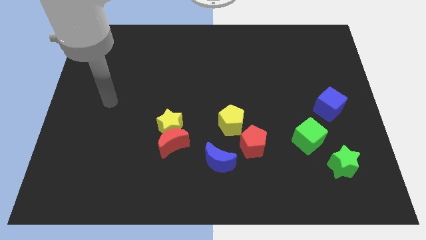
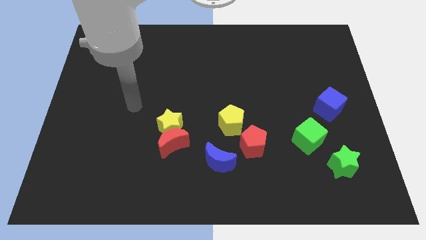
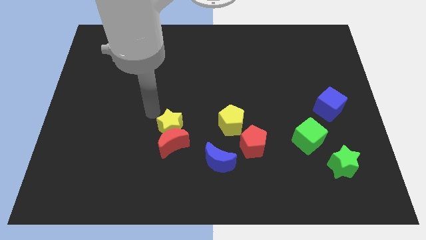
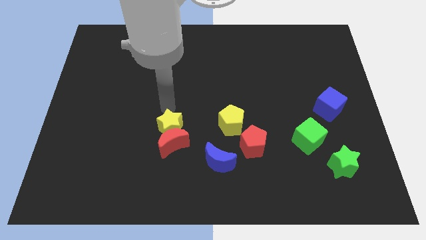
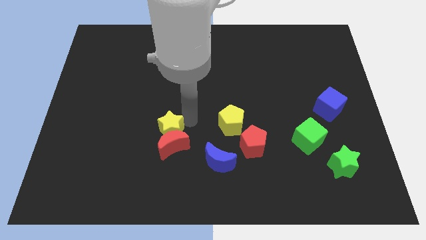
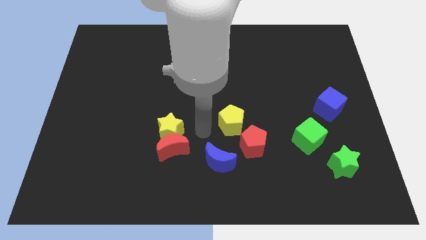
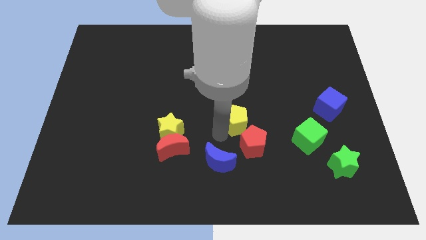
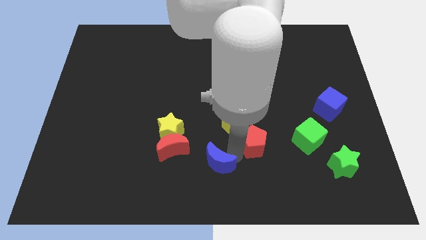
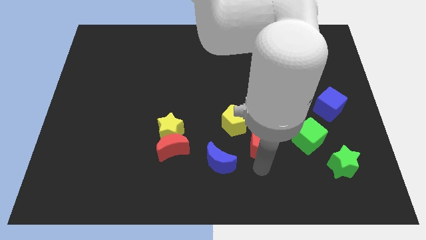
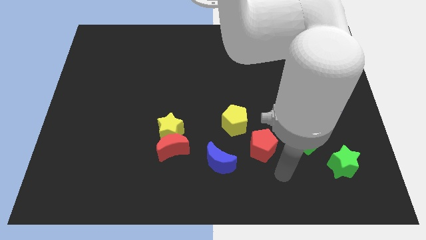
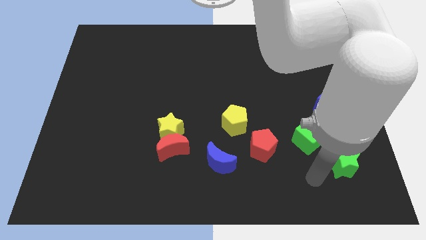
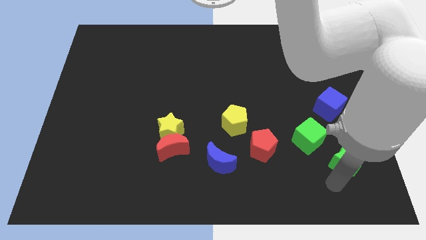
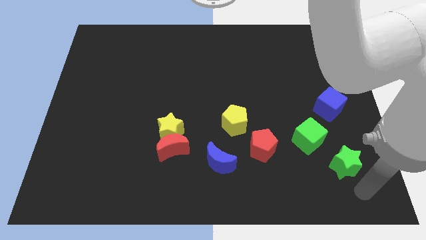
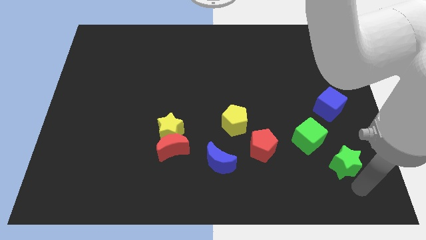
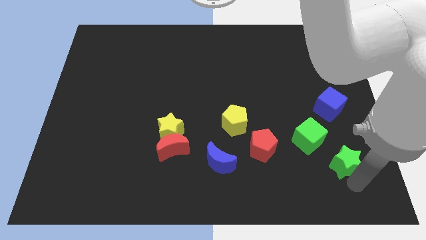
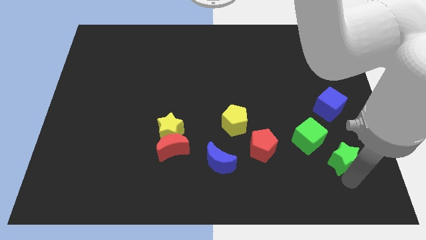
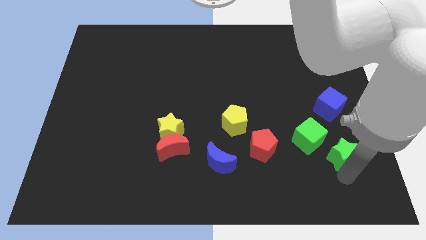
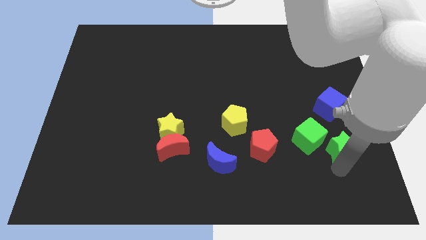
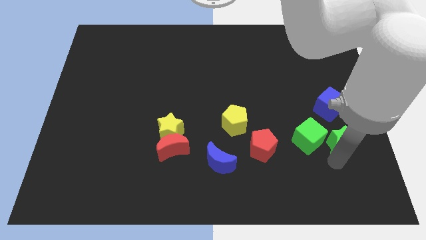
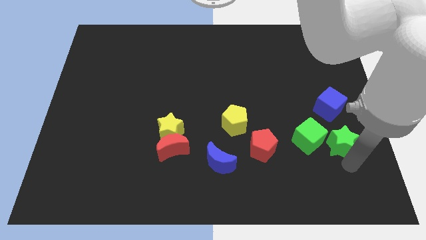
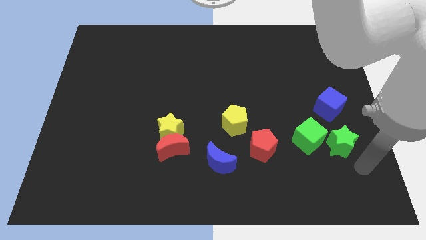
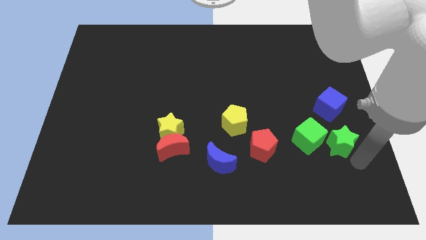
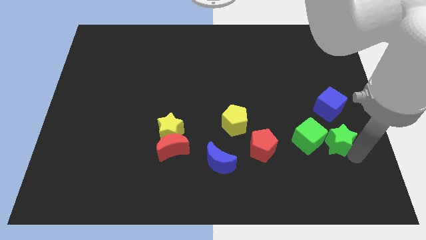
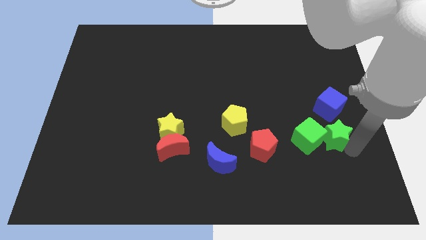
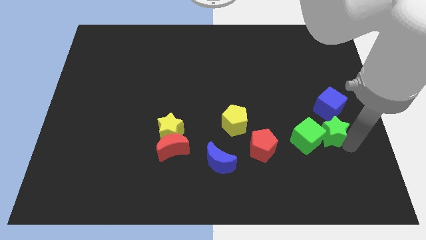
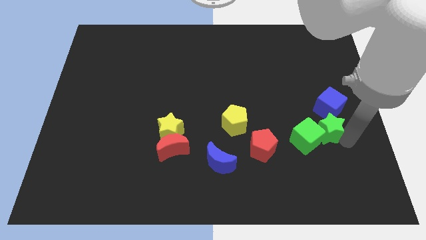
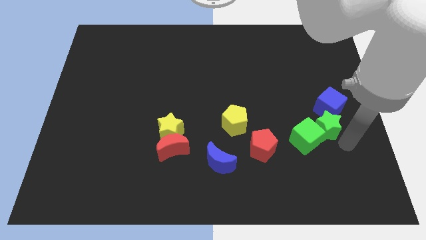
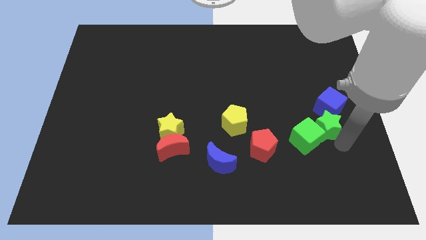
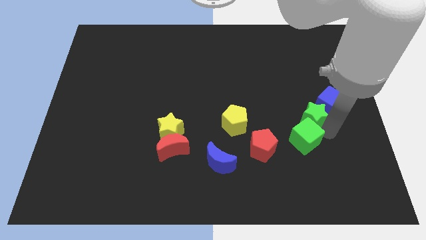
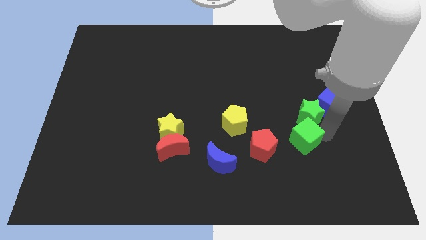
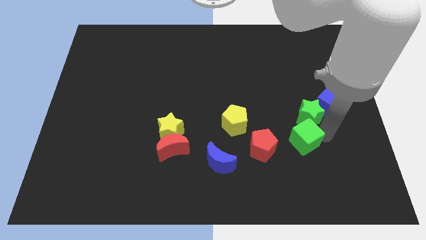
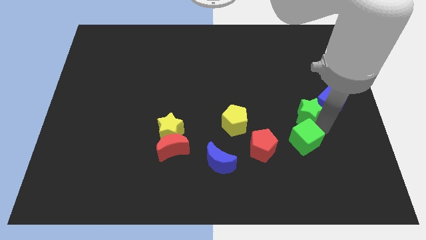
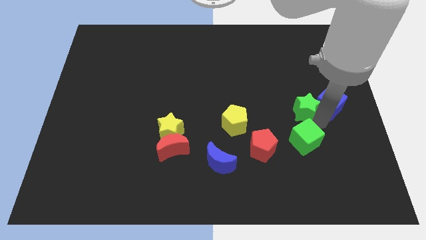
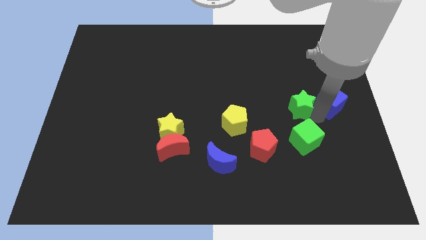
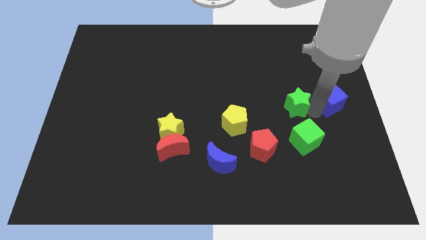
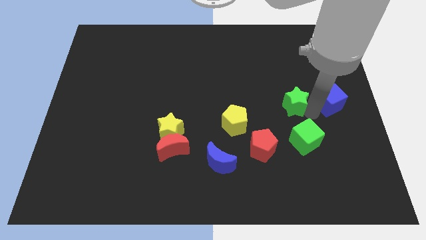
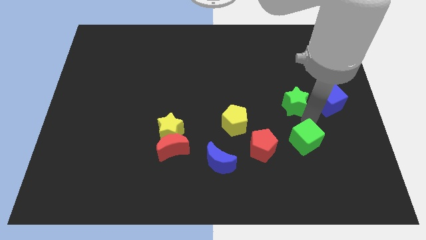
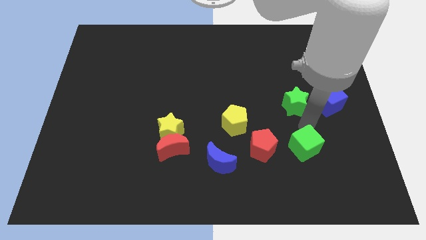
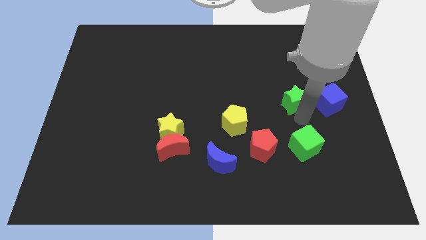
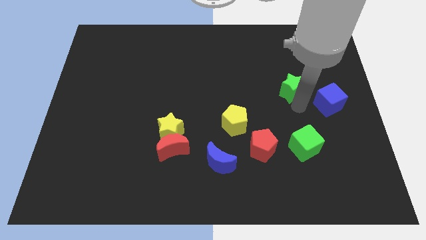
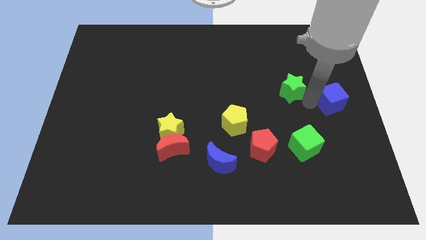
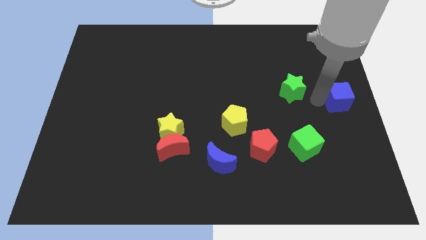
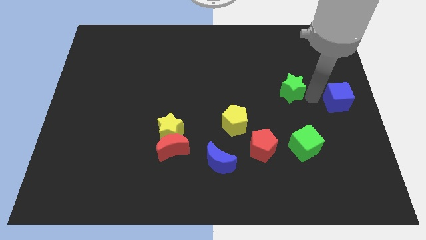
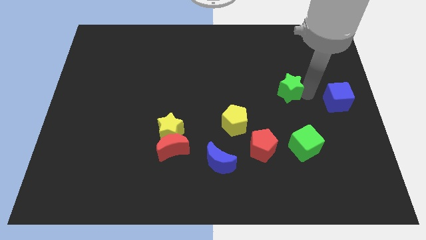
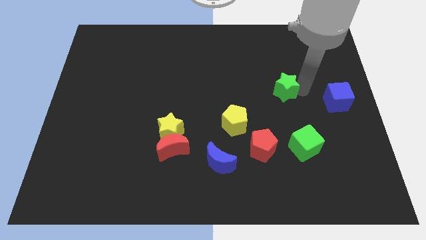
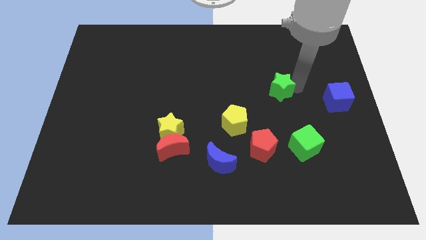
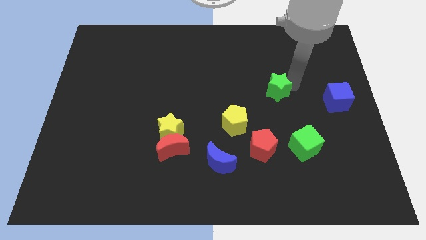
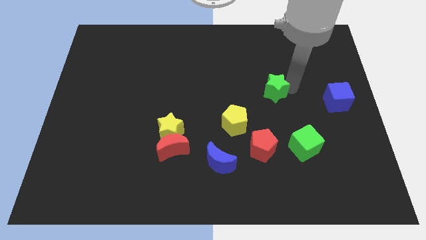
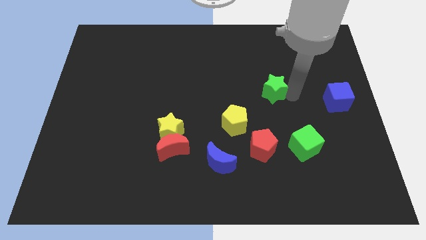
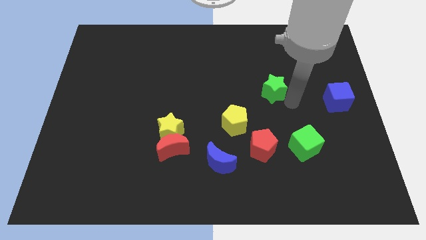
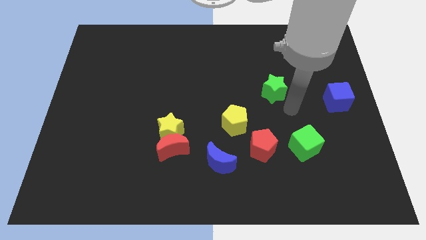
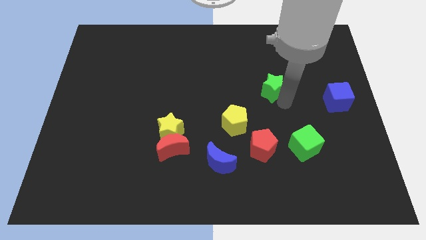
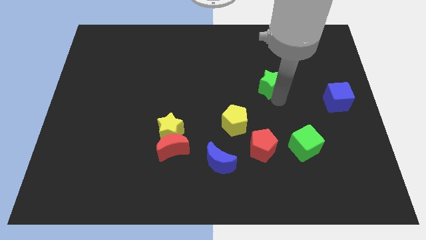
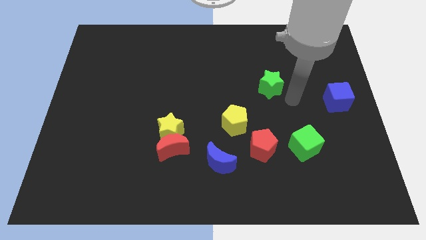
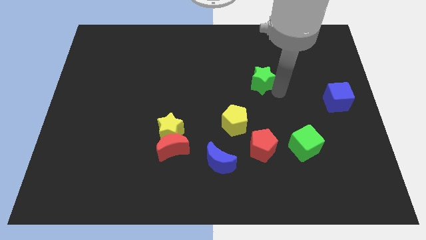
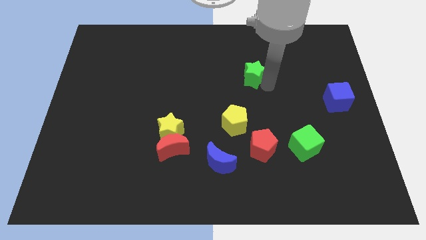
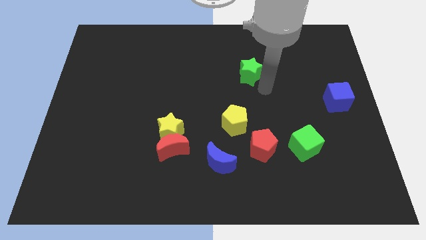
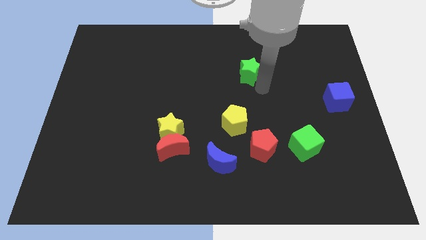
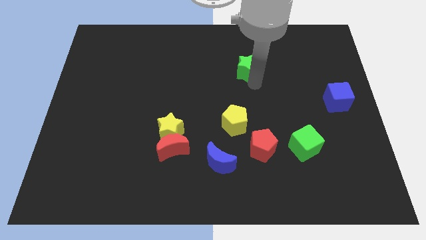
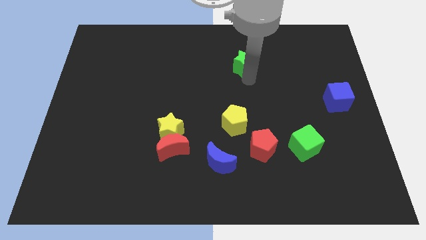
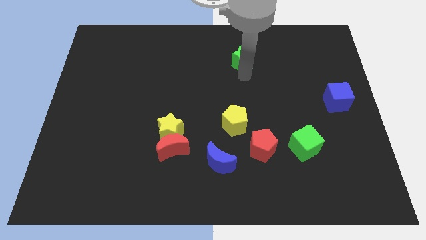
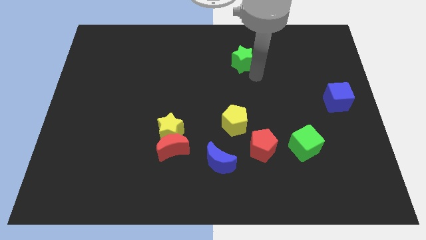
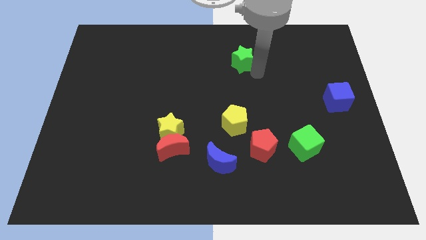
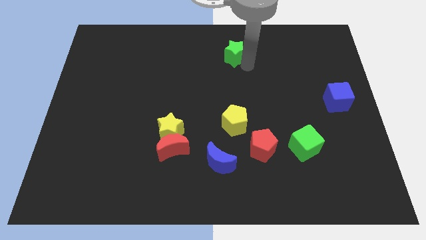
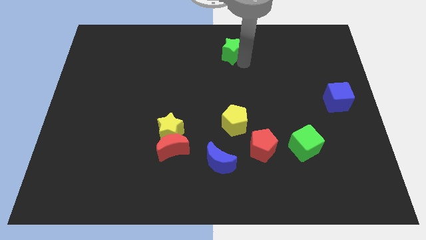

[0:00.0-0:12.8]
put the green star to the towards your base
